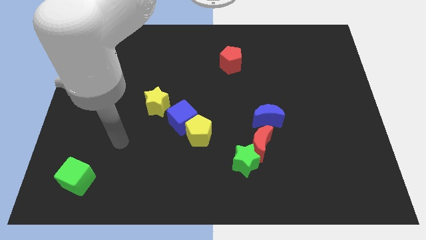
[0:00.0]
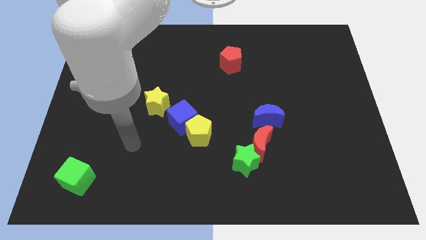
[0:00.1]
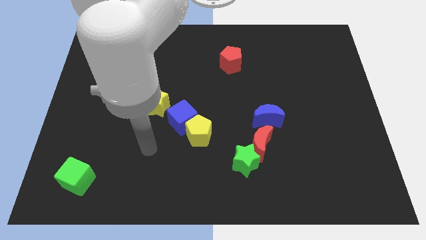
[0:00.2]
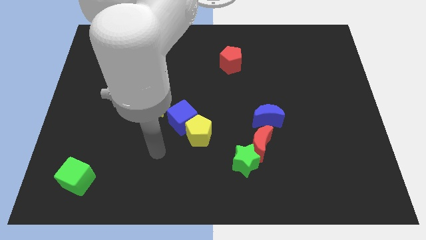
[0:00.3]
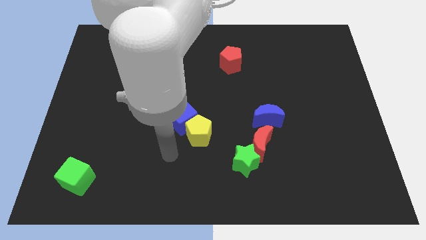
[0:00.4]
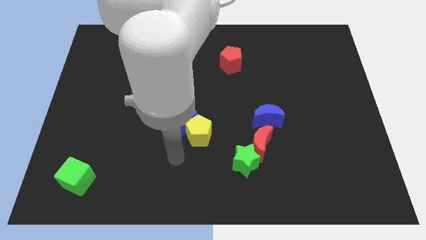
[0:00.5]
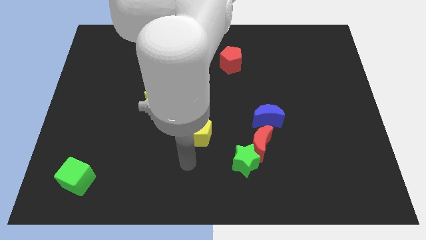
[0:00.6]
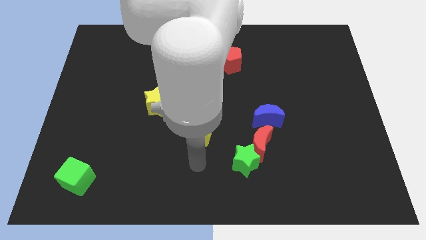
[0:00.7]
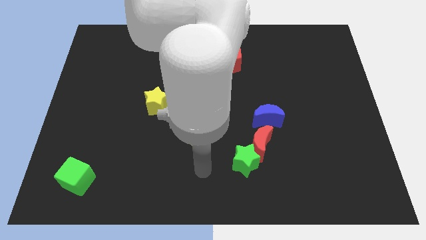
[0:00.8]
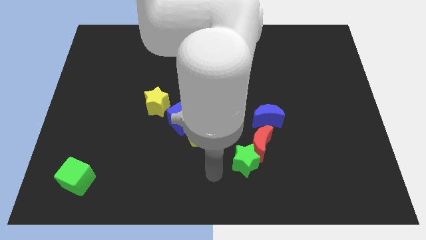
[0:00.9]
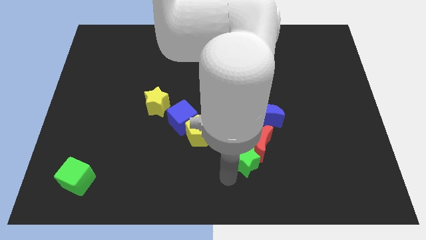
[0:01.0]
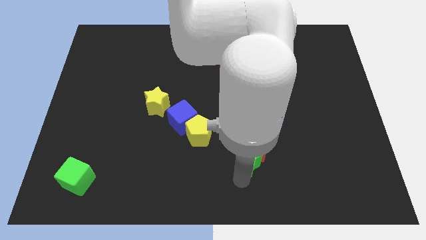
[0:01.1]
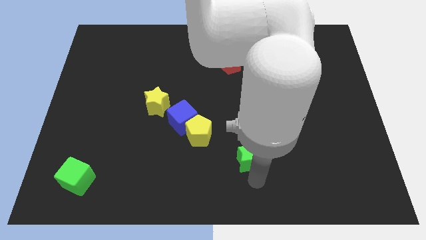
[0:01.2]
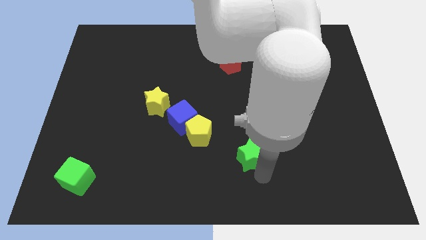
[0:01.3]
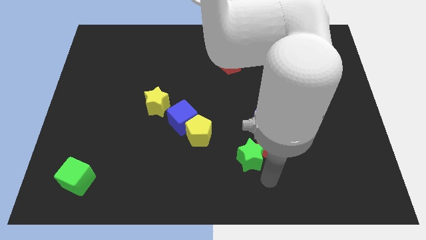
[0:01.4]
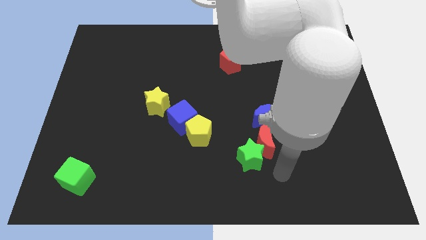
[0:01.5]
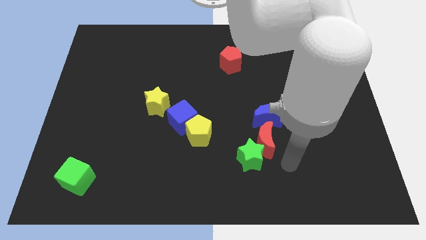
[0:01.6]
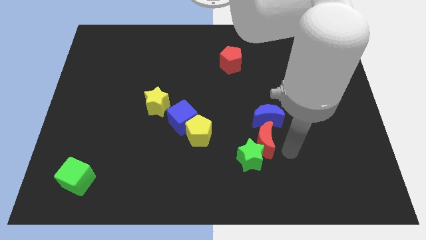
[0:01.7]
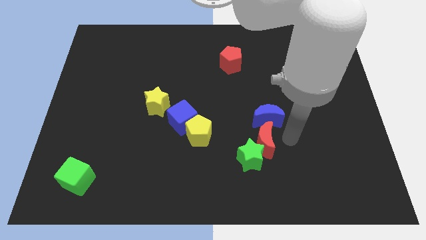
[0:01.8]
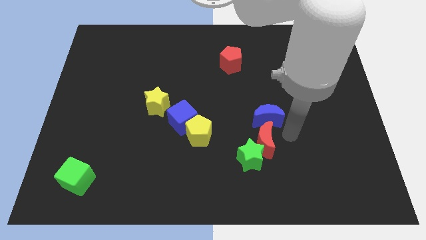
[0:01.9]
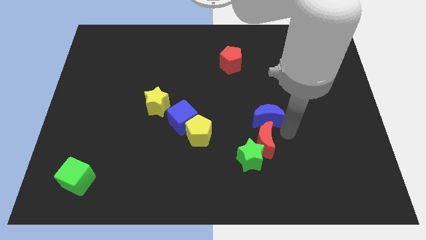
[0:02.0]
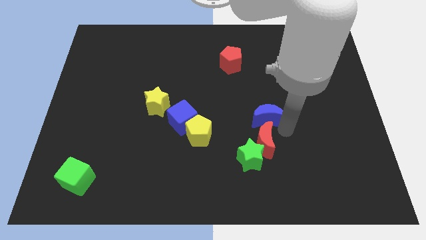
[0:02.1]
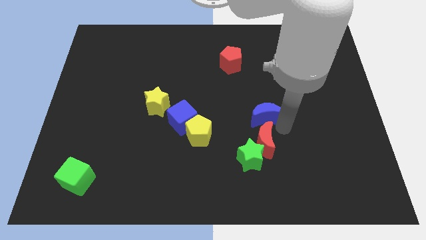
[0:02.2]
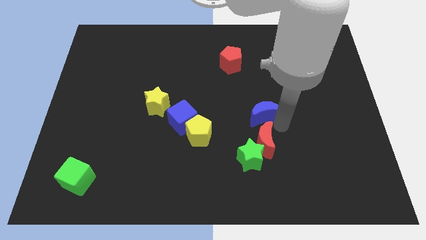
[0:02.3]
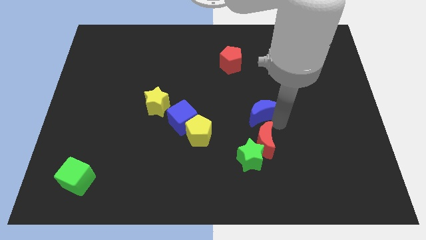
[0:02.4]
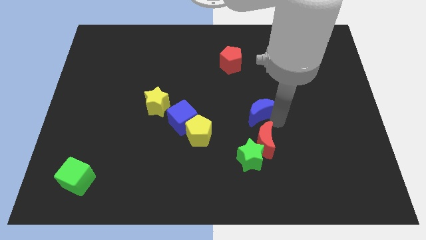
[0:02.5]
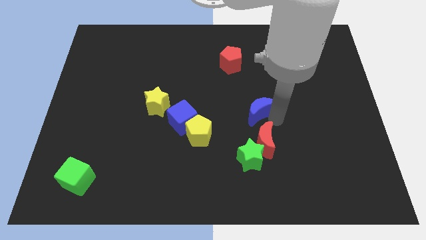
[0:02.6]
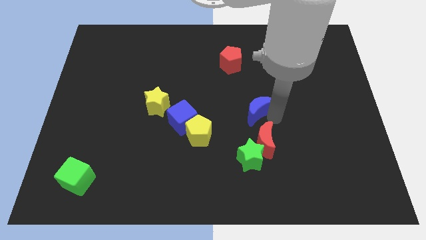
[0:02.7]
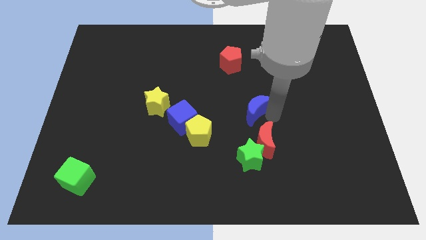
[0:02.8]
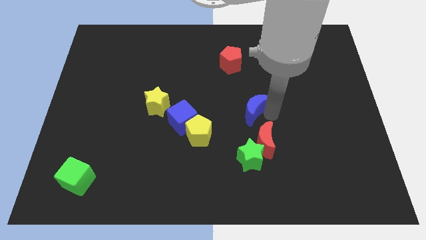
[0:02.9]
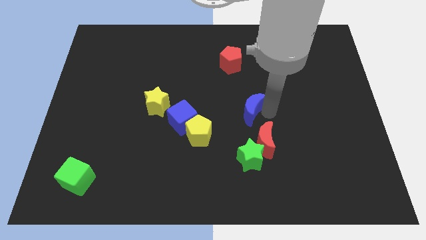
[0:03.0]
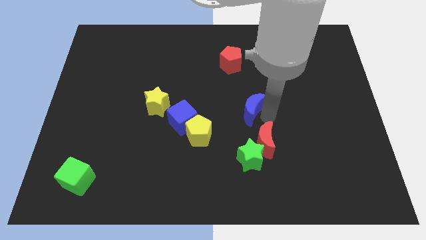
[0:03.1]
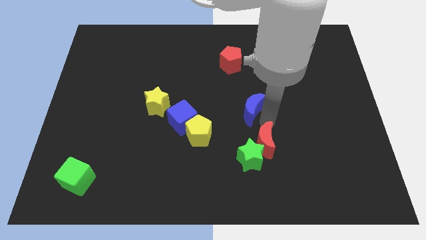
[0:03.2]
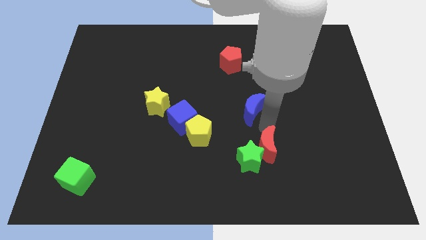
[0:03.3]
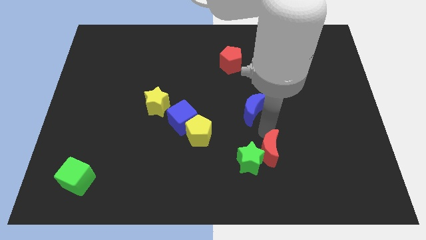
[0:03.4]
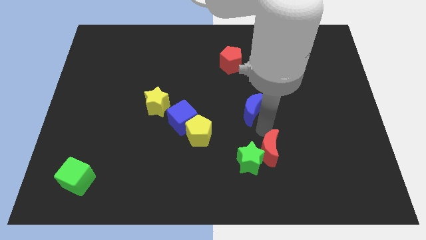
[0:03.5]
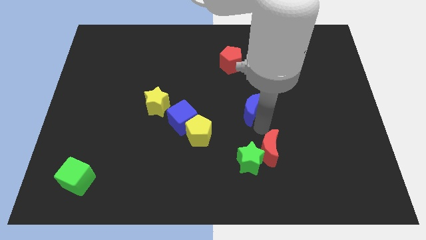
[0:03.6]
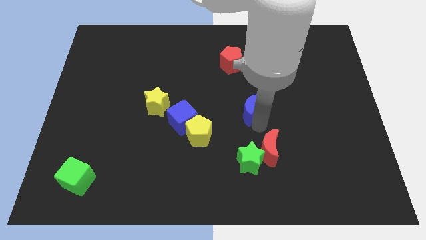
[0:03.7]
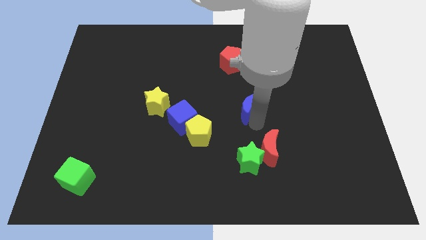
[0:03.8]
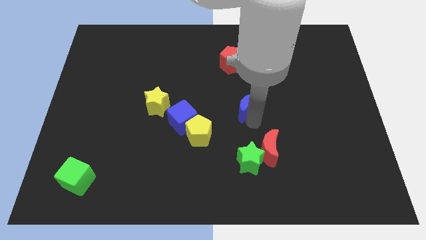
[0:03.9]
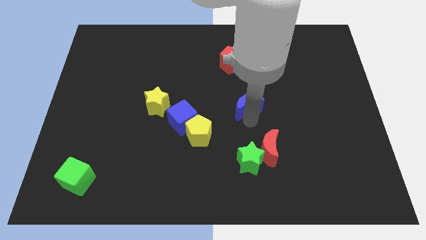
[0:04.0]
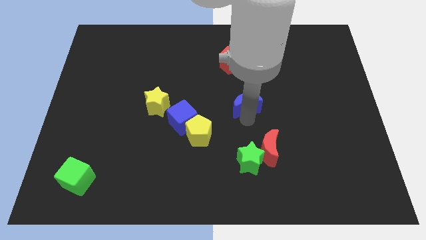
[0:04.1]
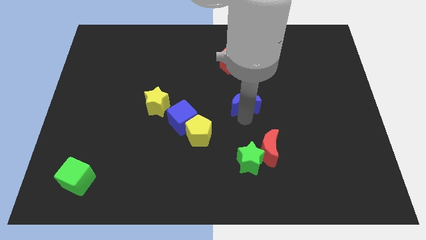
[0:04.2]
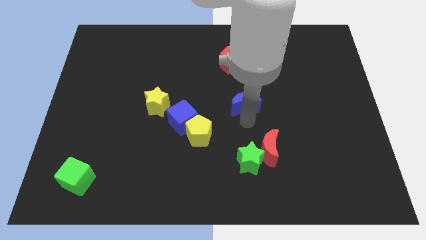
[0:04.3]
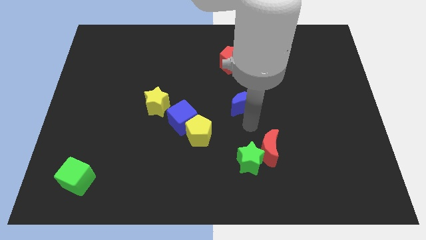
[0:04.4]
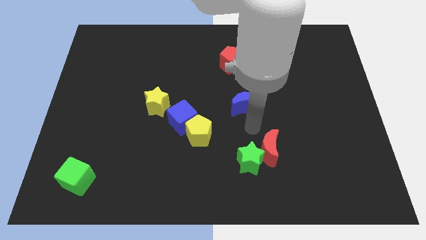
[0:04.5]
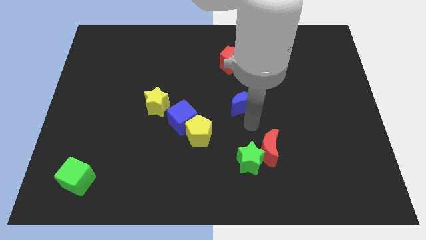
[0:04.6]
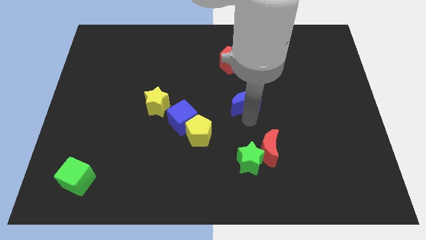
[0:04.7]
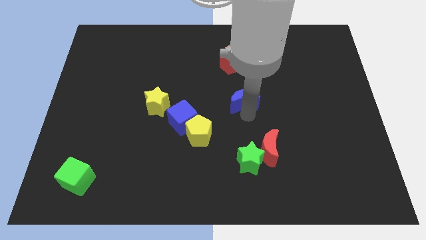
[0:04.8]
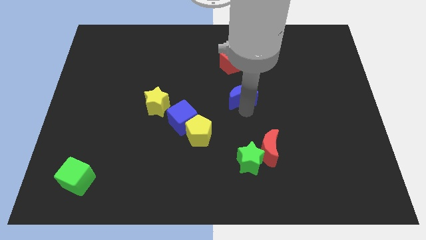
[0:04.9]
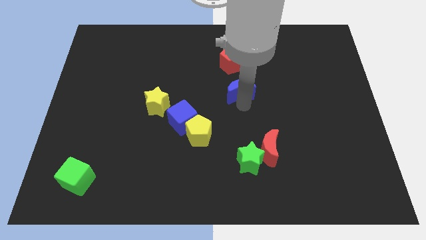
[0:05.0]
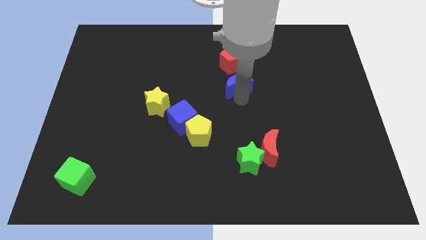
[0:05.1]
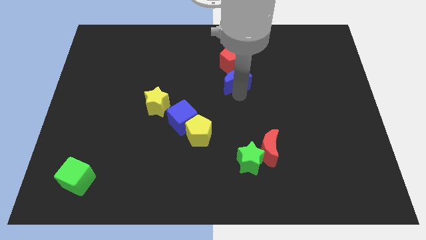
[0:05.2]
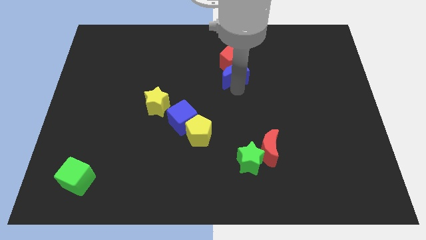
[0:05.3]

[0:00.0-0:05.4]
put the blue moon towards the red pentagon

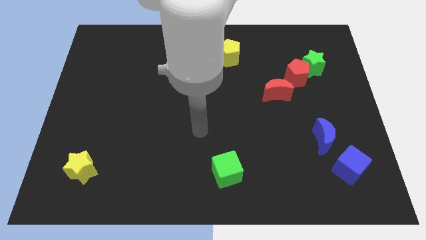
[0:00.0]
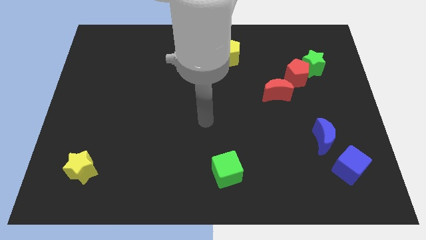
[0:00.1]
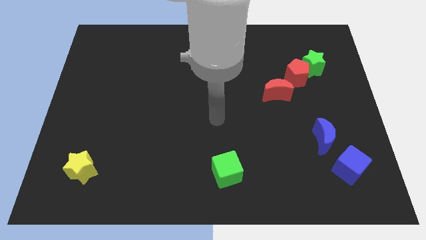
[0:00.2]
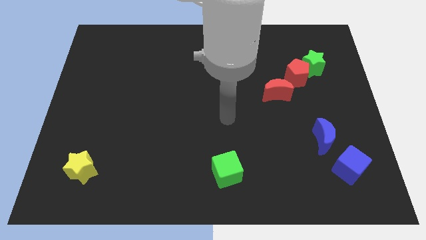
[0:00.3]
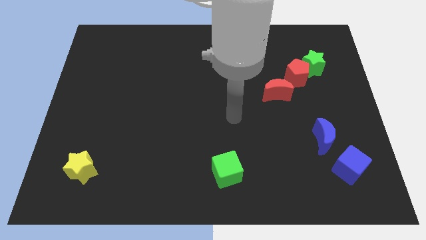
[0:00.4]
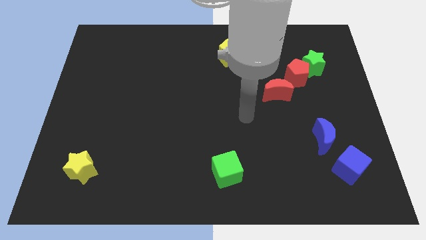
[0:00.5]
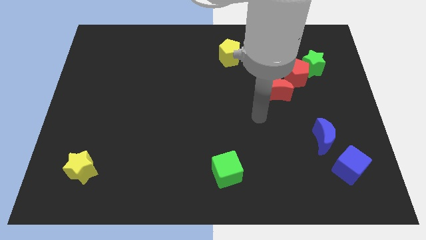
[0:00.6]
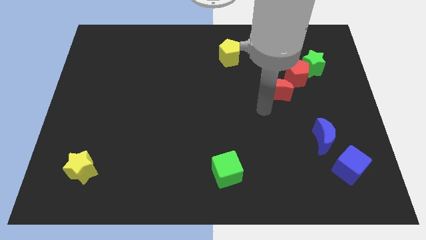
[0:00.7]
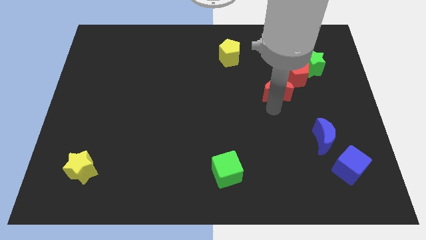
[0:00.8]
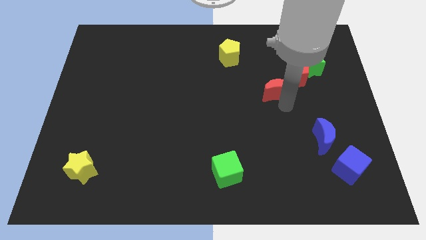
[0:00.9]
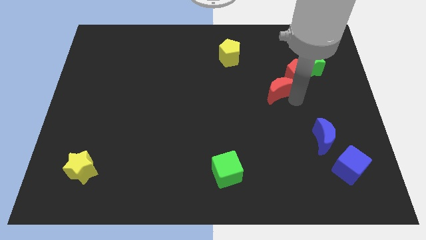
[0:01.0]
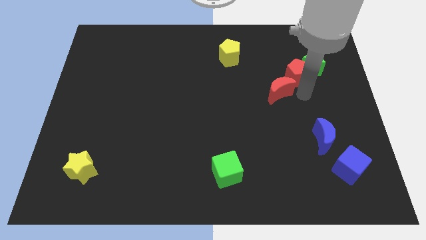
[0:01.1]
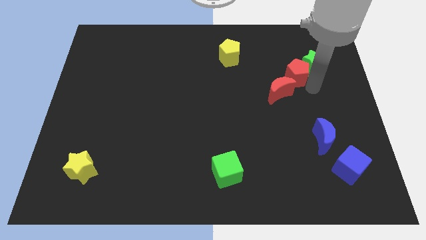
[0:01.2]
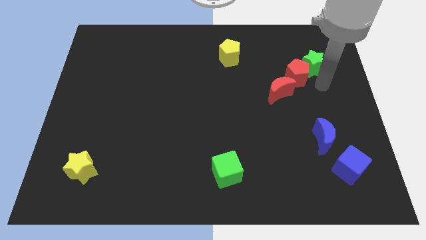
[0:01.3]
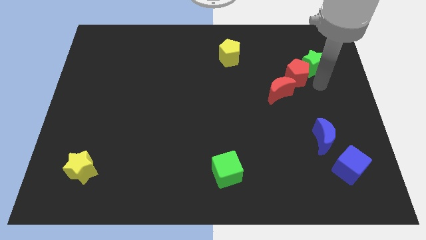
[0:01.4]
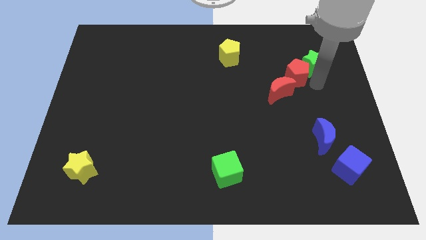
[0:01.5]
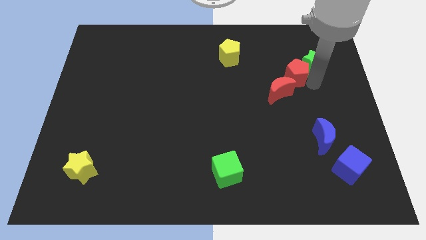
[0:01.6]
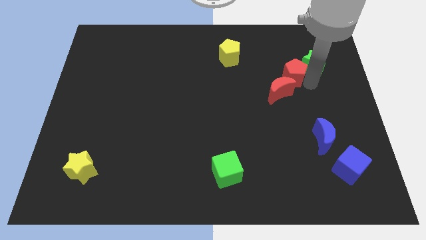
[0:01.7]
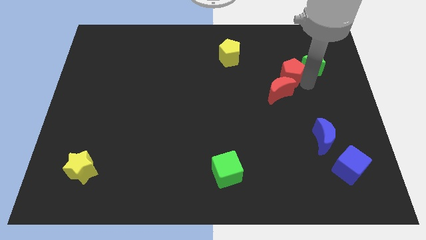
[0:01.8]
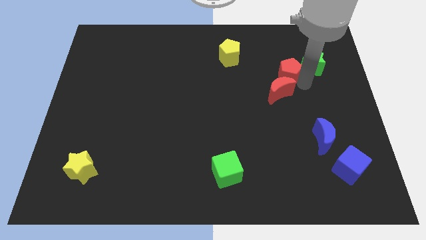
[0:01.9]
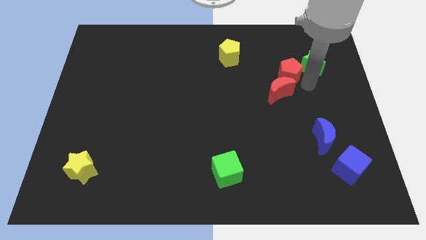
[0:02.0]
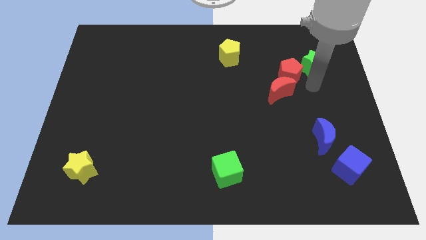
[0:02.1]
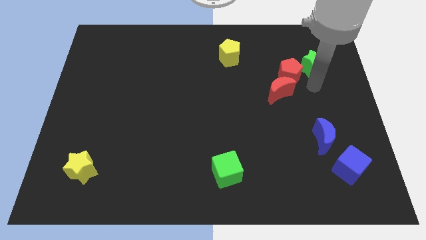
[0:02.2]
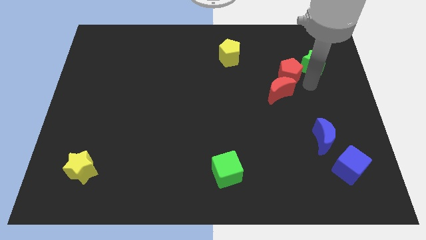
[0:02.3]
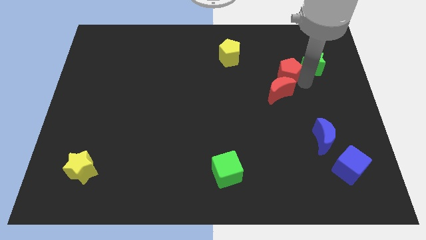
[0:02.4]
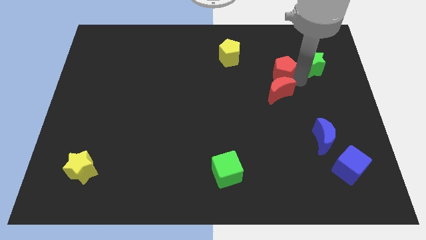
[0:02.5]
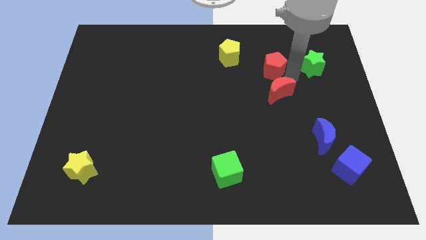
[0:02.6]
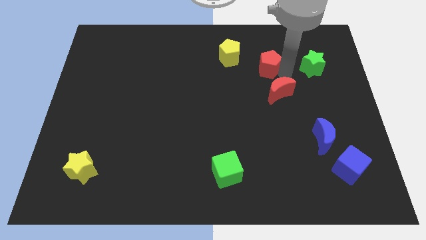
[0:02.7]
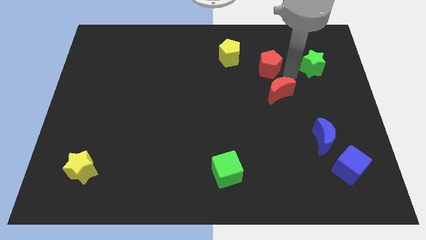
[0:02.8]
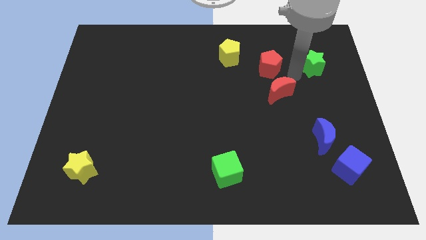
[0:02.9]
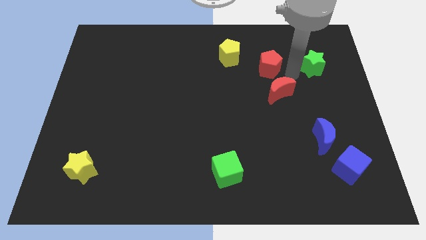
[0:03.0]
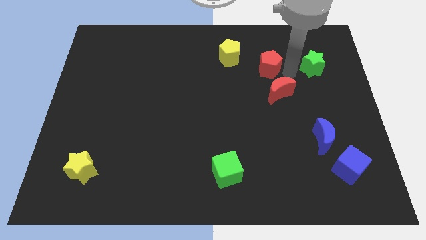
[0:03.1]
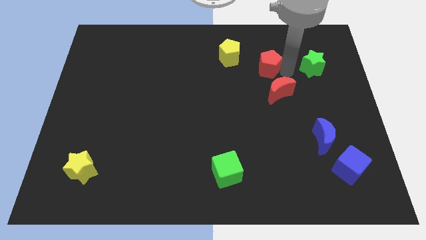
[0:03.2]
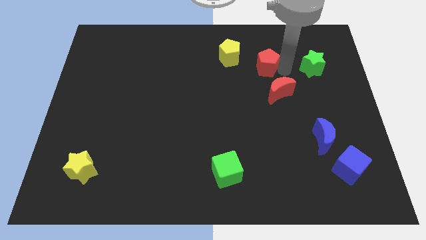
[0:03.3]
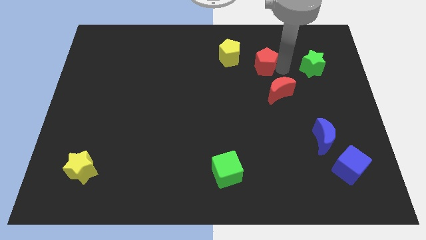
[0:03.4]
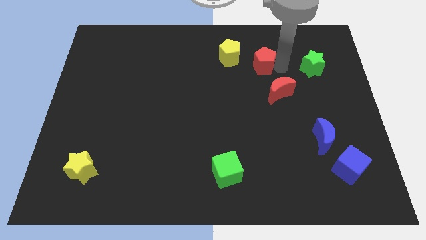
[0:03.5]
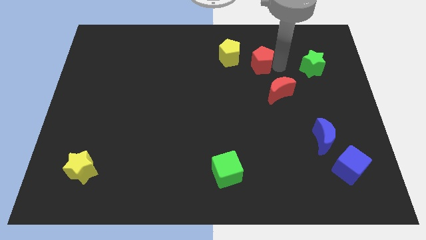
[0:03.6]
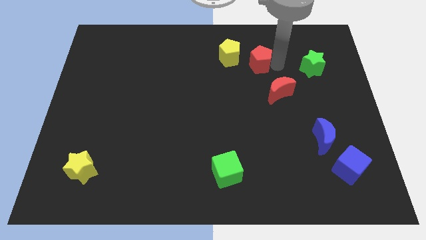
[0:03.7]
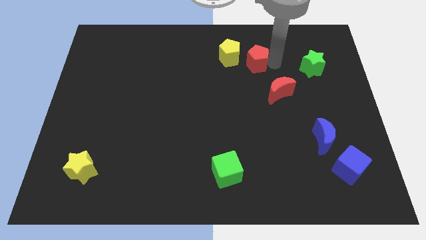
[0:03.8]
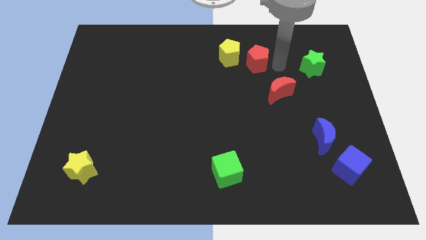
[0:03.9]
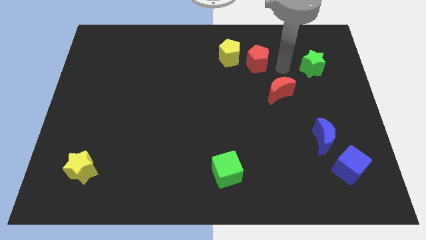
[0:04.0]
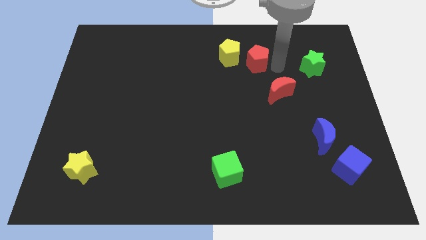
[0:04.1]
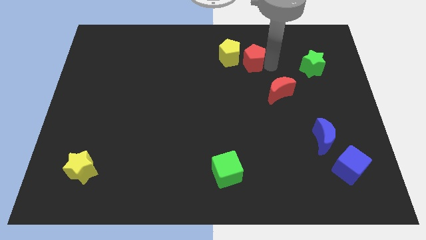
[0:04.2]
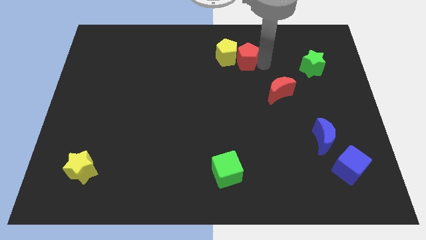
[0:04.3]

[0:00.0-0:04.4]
move the red pentagon to the yellow pentagon
